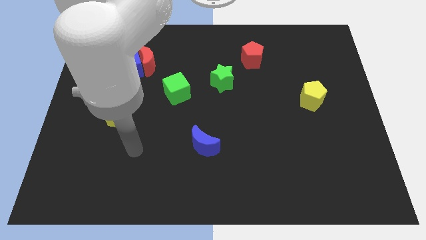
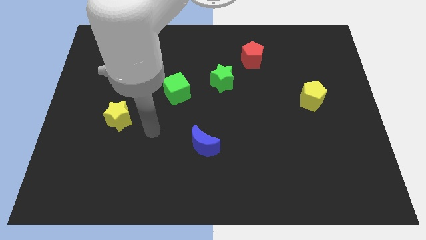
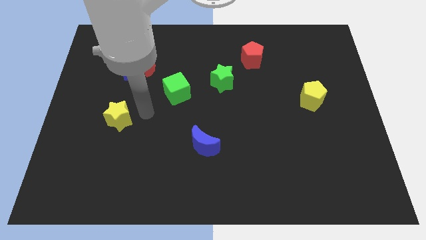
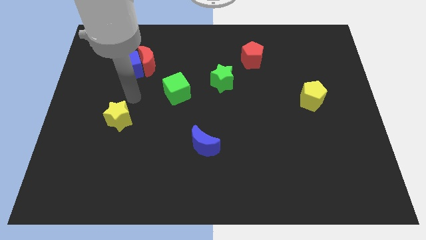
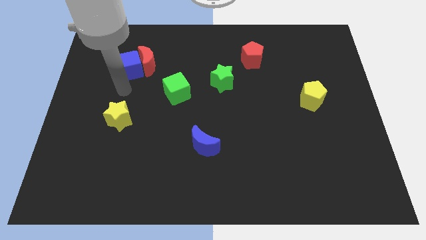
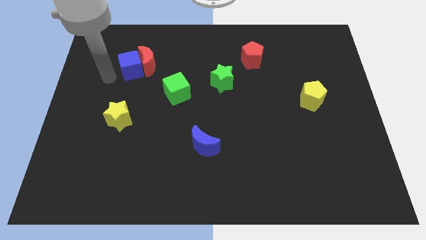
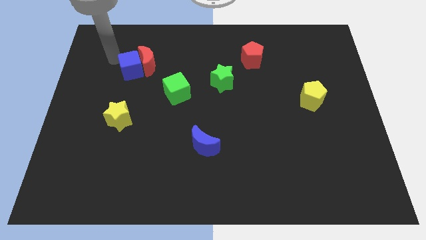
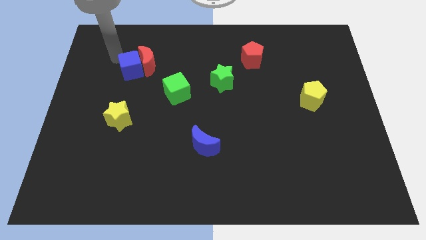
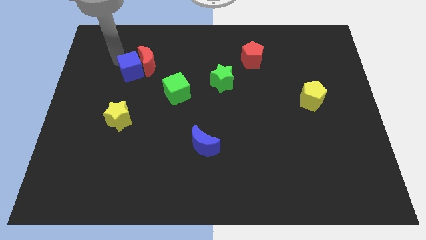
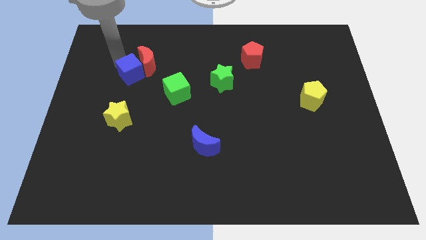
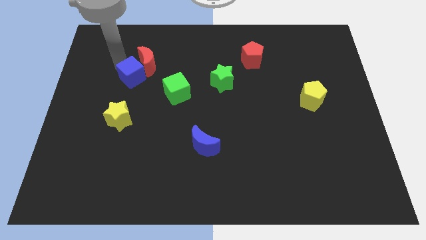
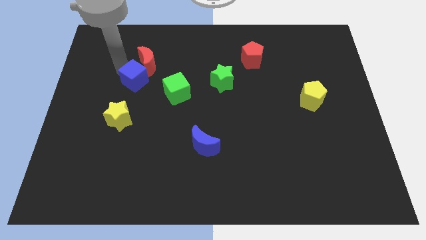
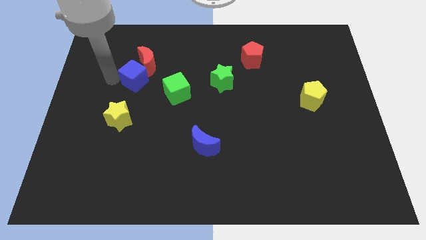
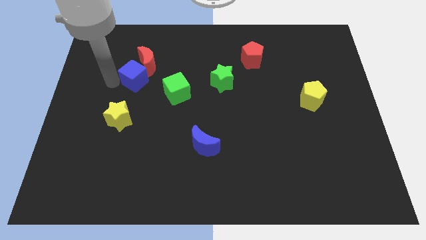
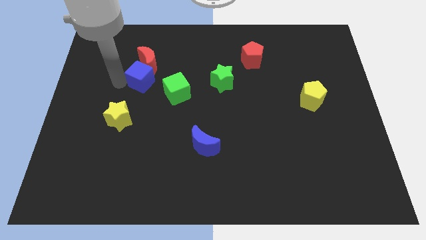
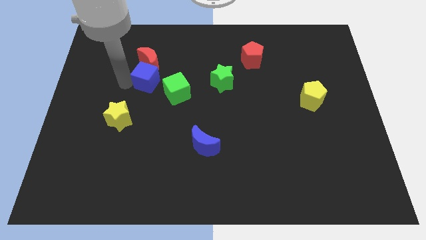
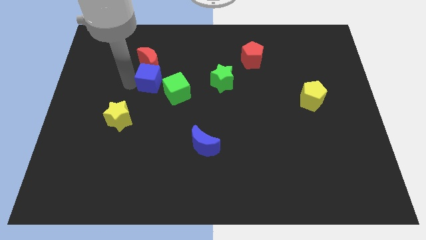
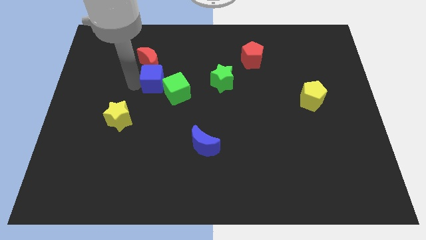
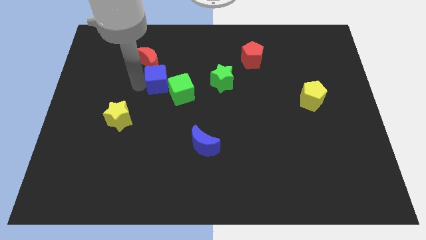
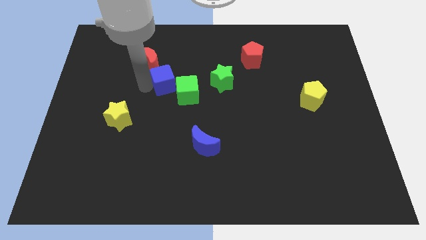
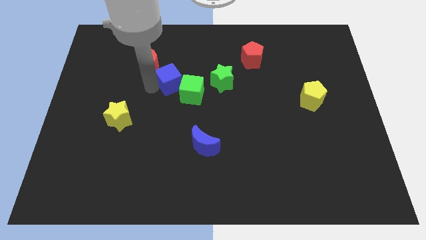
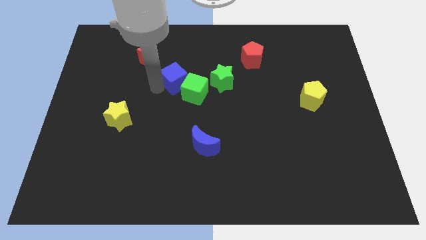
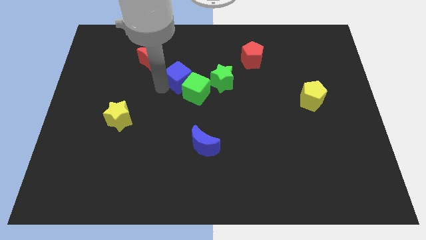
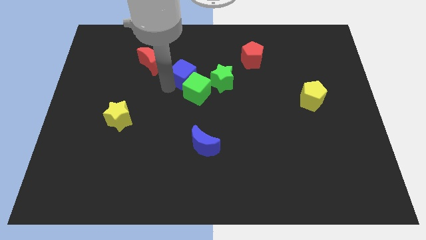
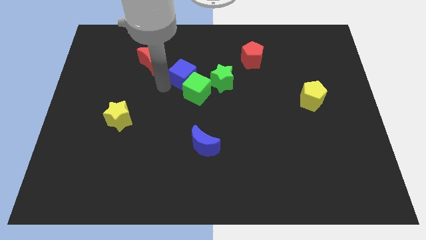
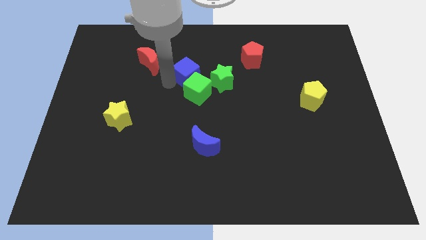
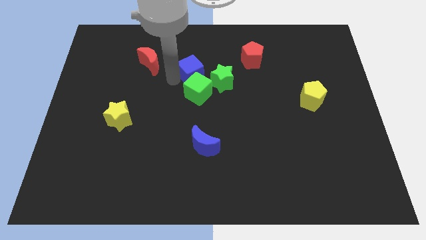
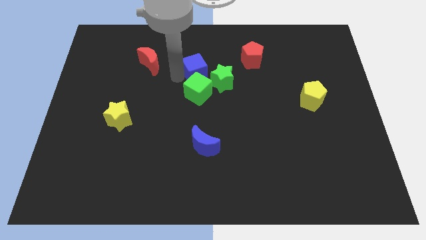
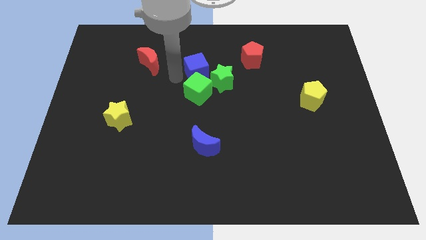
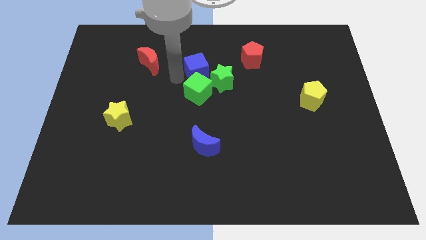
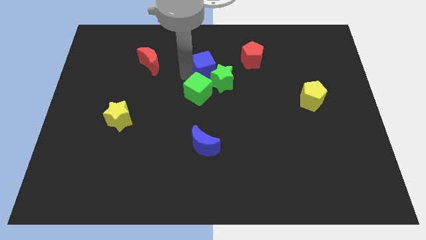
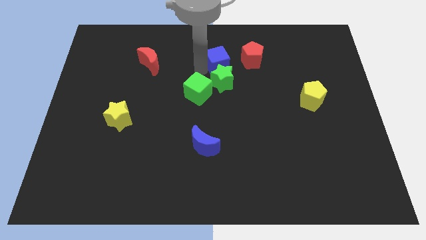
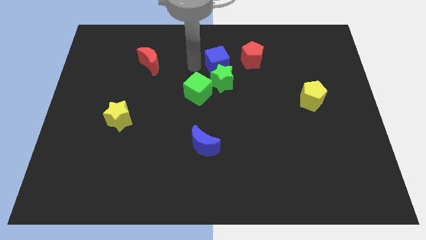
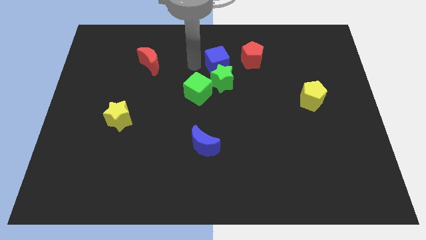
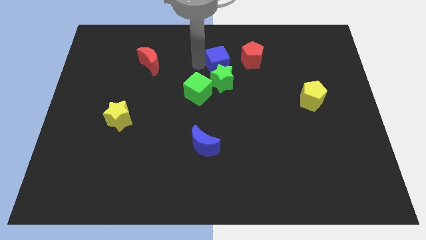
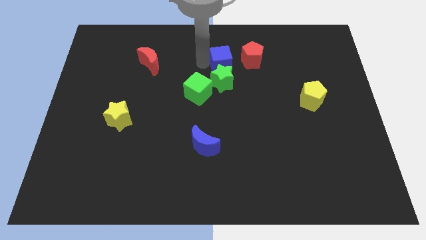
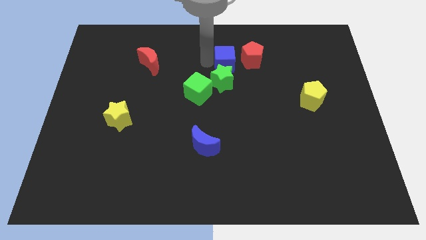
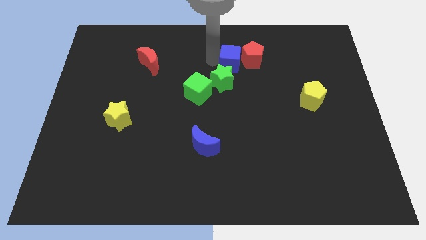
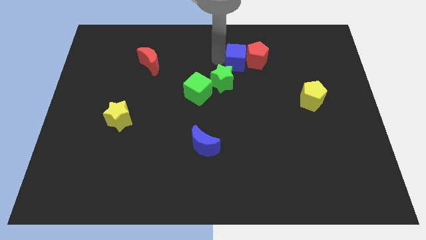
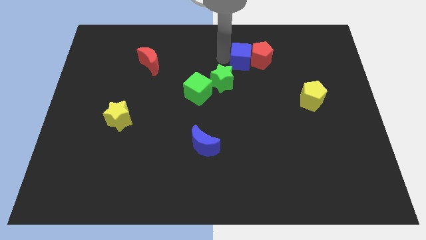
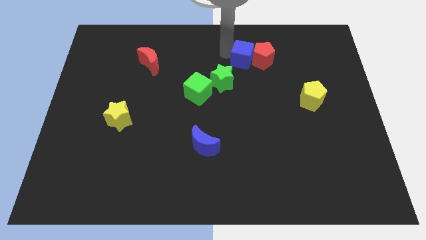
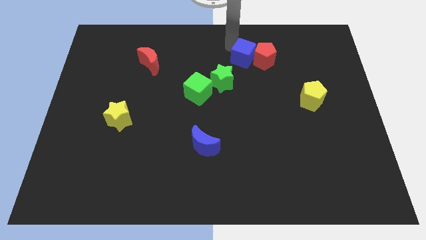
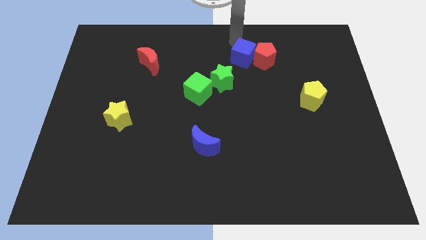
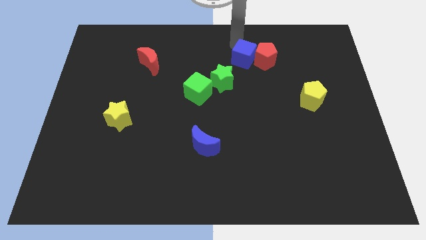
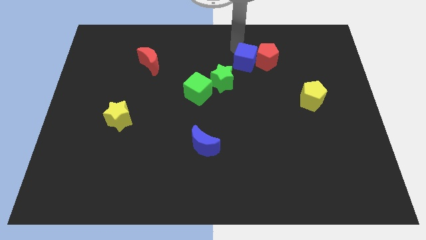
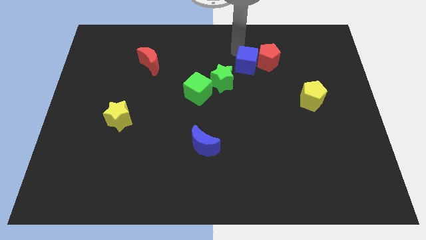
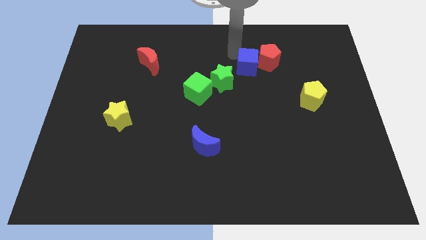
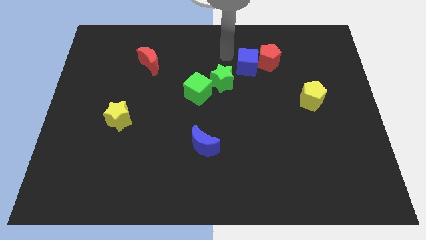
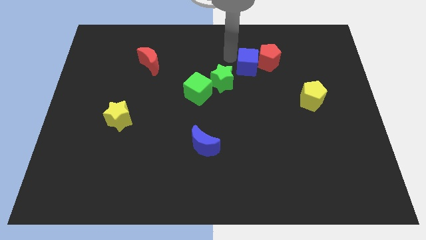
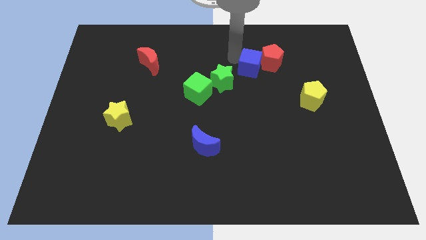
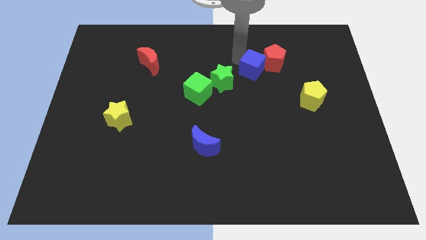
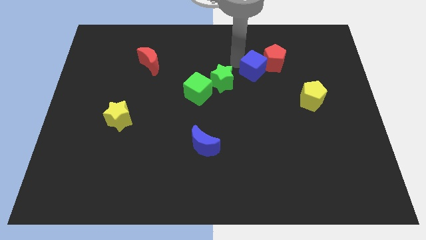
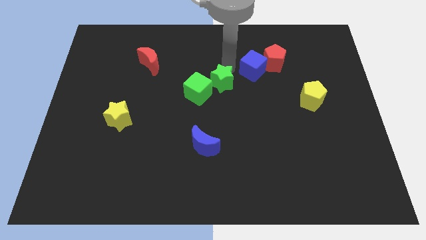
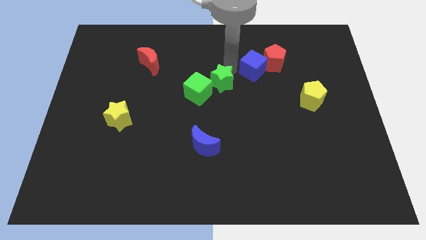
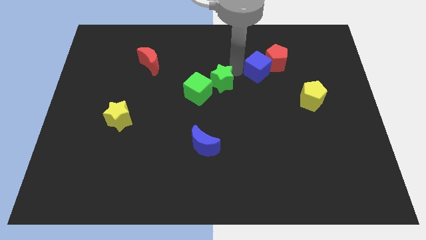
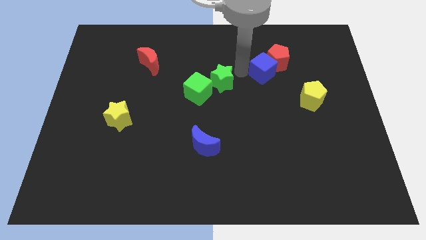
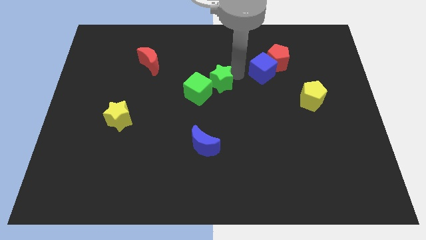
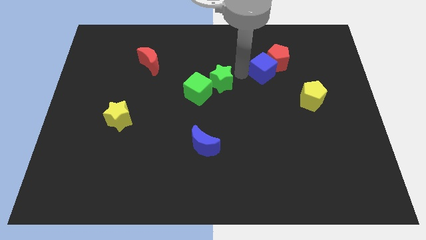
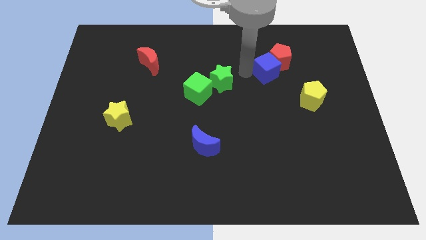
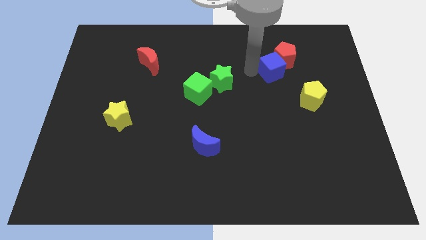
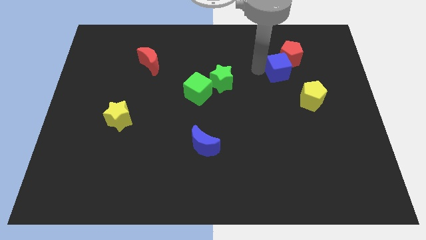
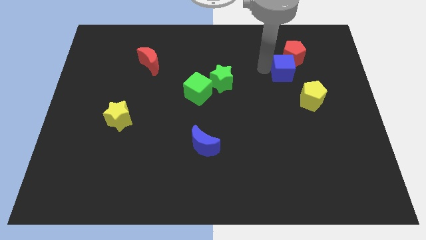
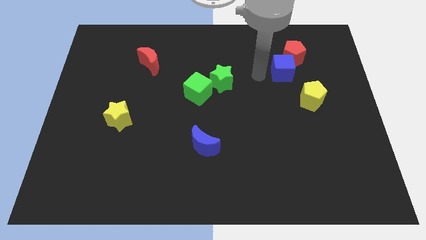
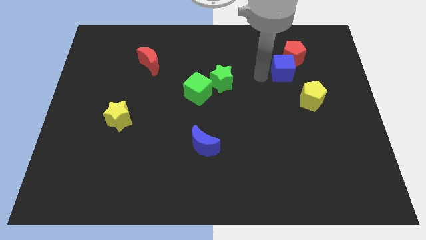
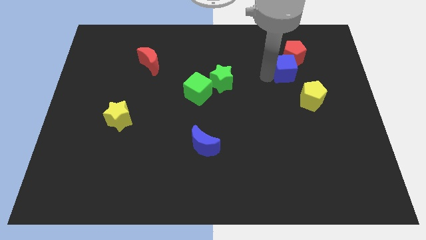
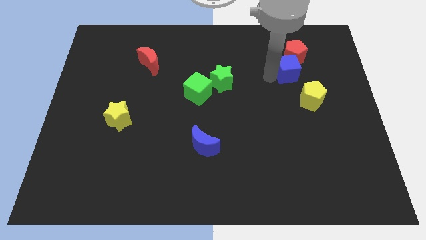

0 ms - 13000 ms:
put the blue cube to the top side of the yellow pentagon

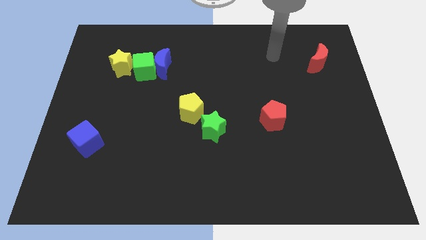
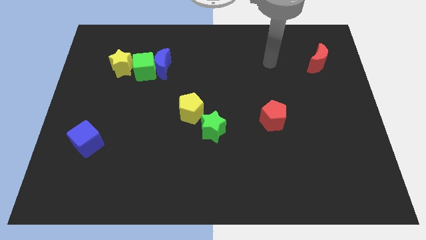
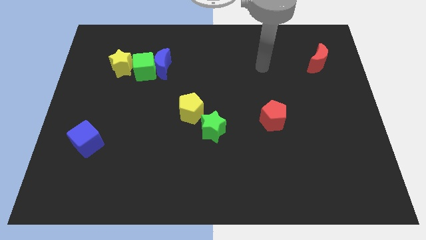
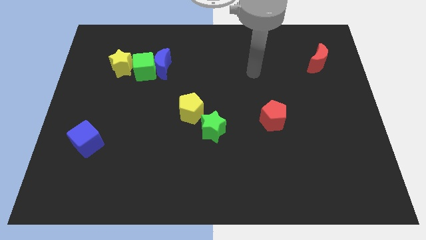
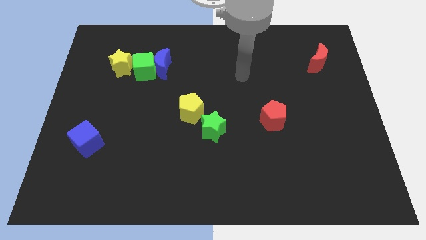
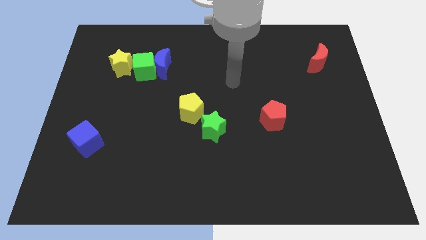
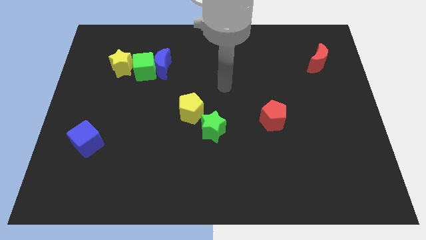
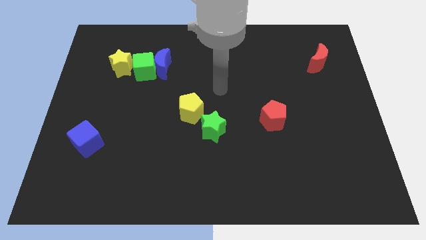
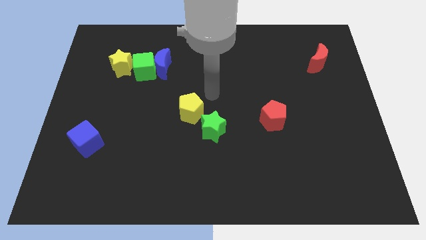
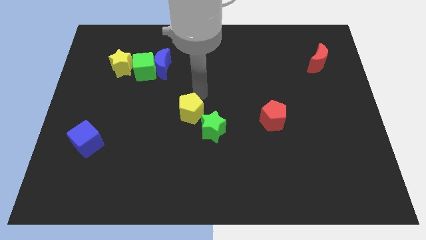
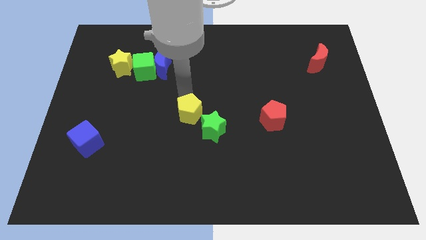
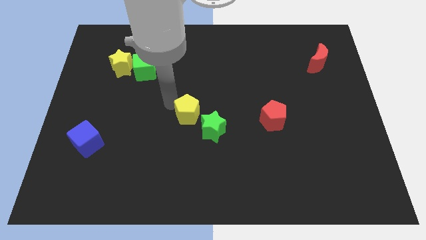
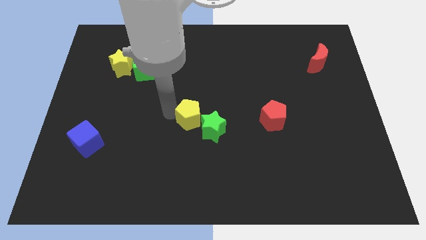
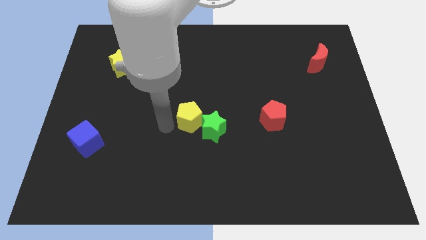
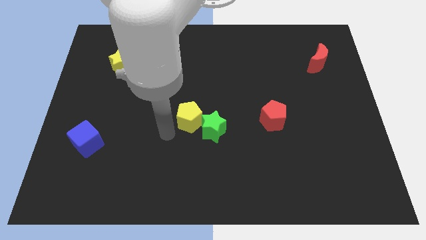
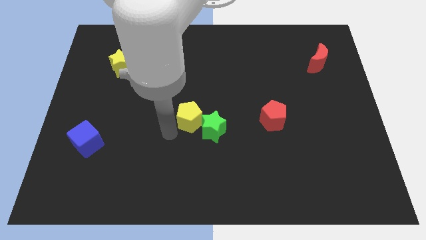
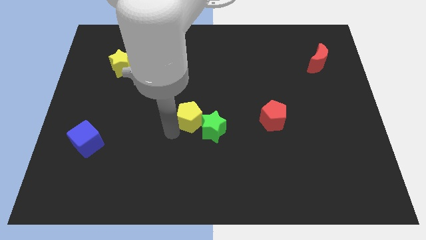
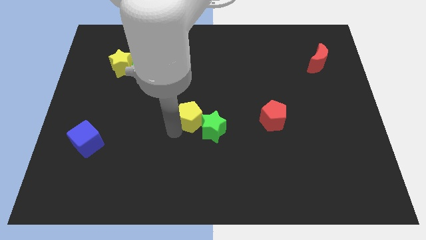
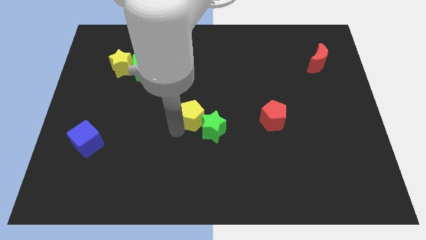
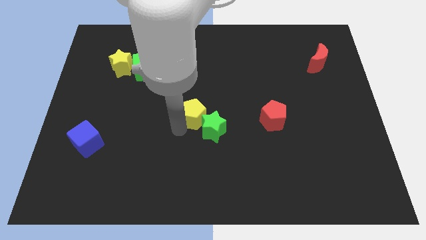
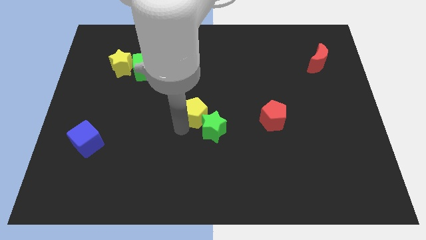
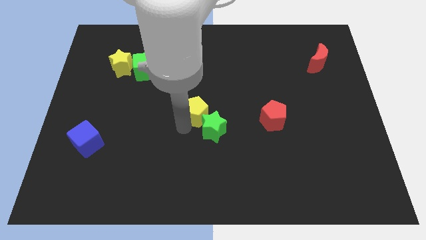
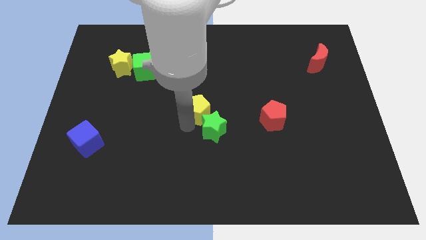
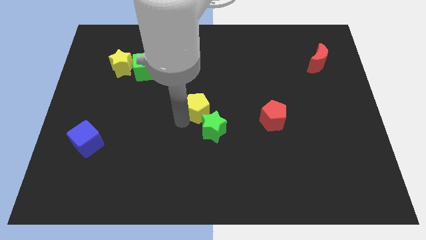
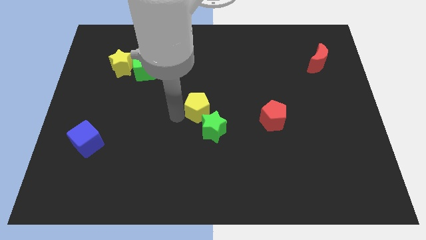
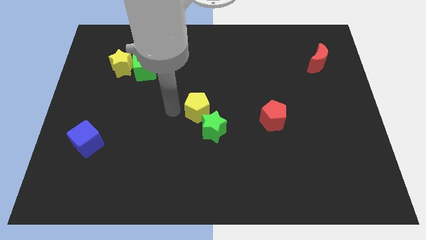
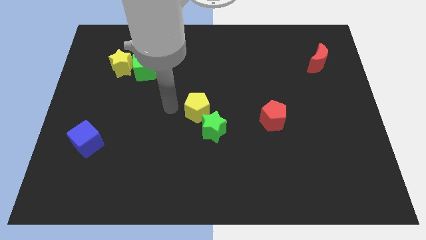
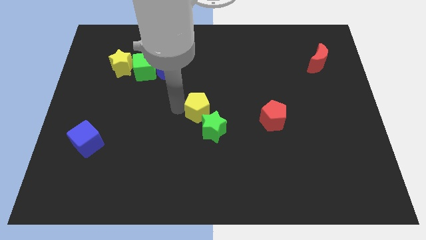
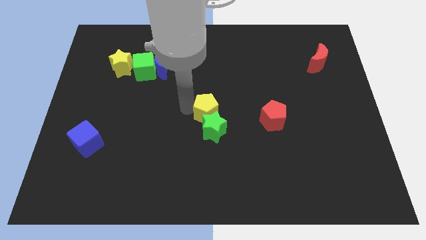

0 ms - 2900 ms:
put the yellow pentagon to the top right of the green star
